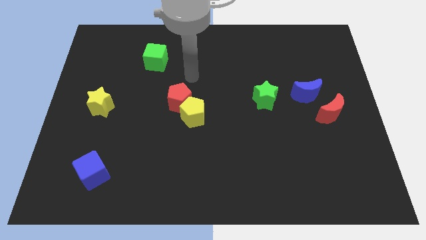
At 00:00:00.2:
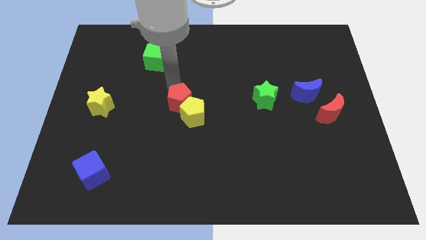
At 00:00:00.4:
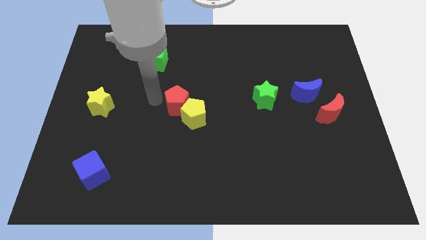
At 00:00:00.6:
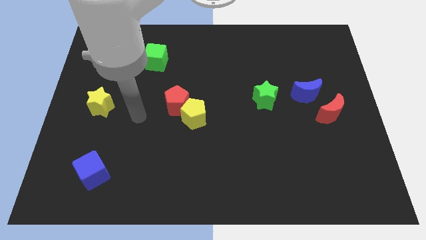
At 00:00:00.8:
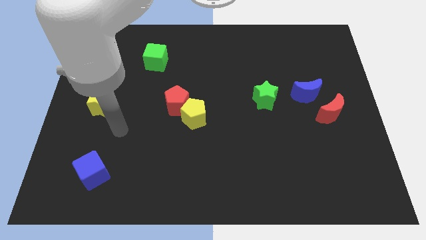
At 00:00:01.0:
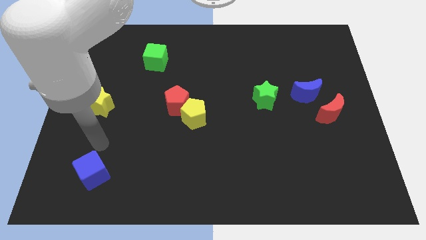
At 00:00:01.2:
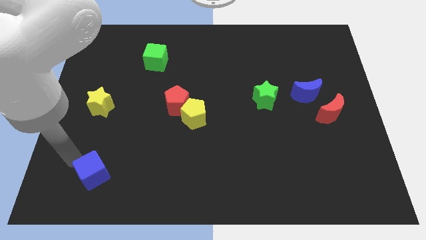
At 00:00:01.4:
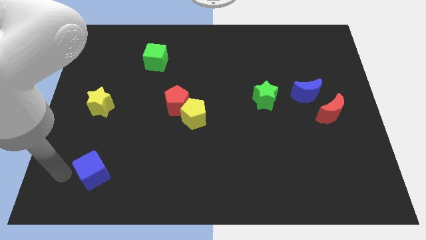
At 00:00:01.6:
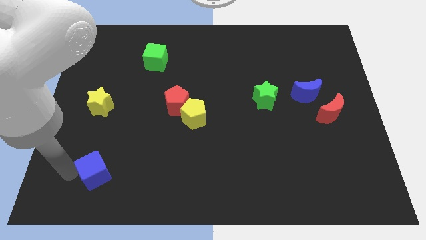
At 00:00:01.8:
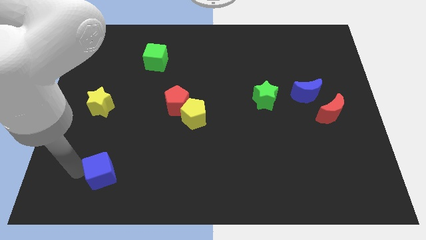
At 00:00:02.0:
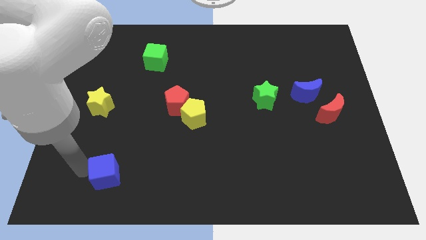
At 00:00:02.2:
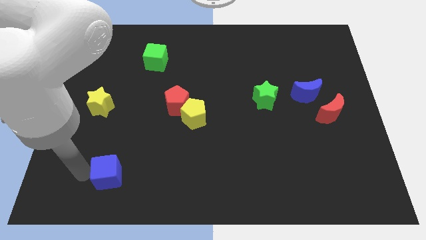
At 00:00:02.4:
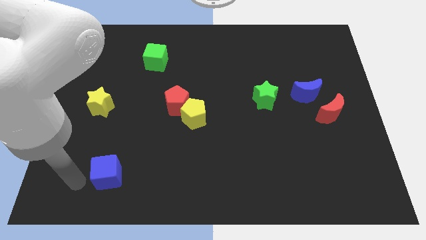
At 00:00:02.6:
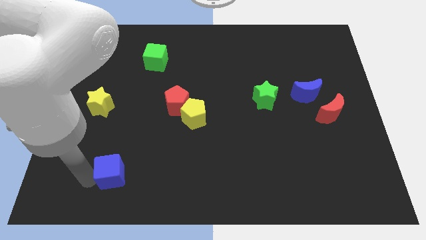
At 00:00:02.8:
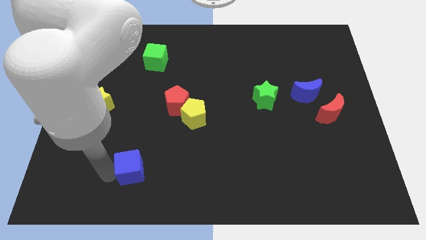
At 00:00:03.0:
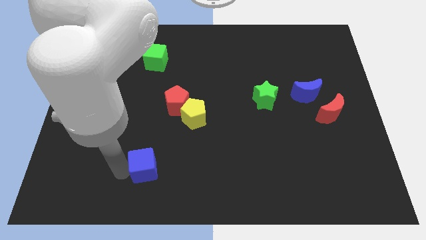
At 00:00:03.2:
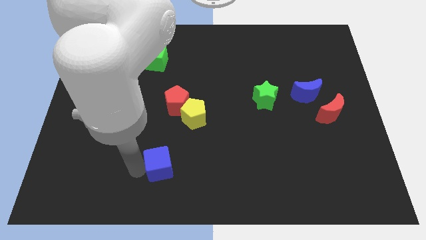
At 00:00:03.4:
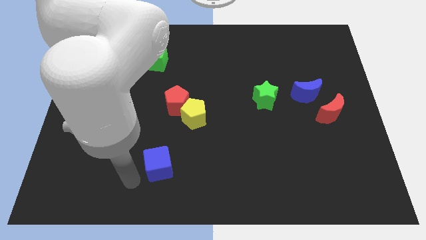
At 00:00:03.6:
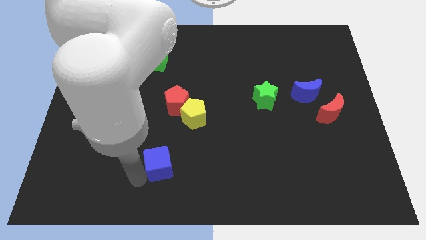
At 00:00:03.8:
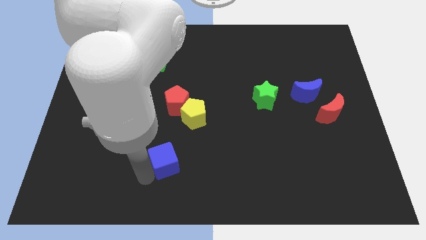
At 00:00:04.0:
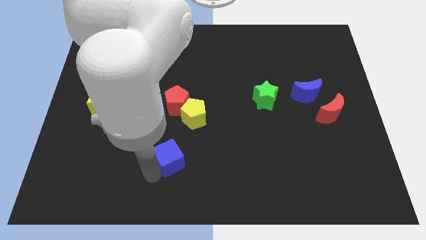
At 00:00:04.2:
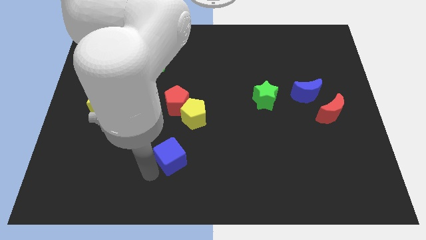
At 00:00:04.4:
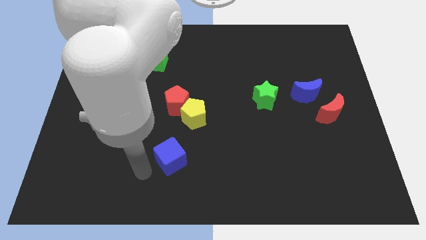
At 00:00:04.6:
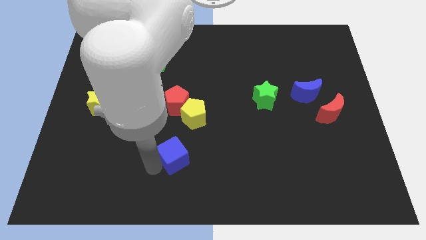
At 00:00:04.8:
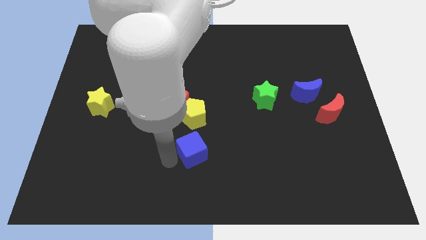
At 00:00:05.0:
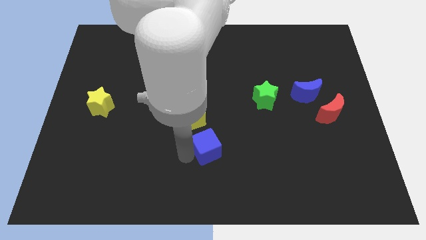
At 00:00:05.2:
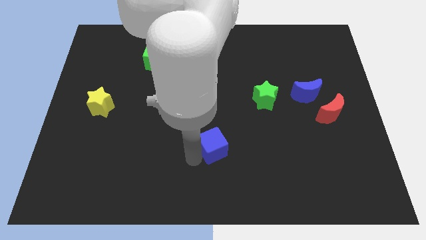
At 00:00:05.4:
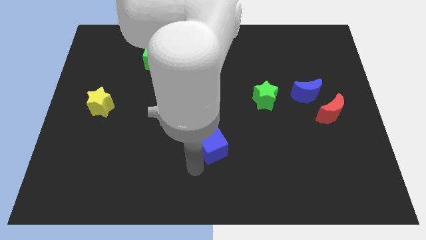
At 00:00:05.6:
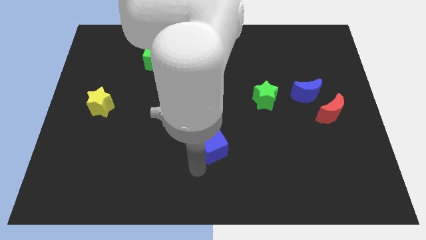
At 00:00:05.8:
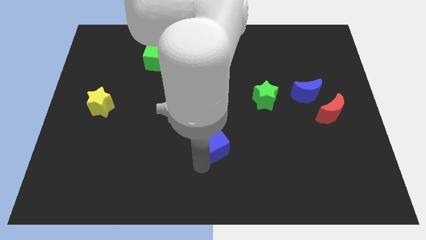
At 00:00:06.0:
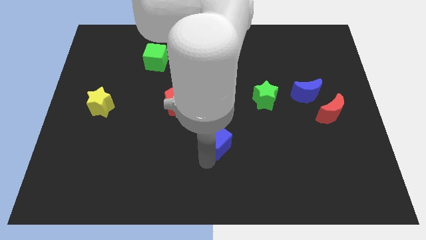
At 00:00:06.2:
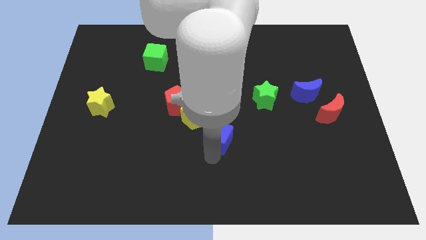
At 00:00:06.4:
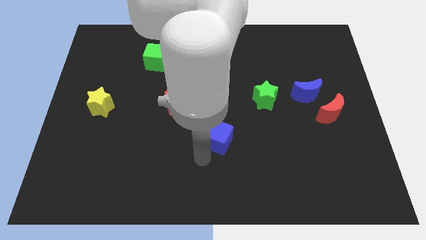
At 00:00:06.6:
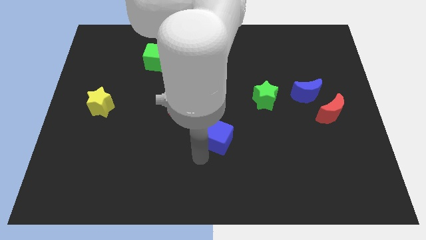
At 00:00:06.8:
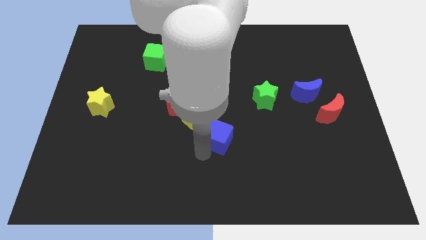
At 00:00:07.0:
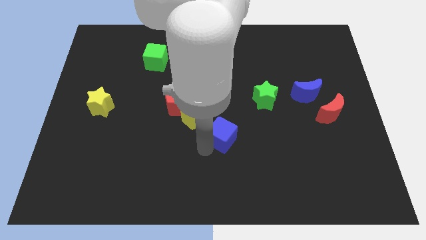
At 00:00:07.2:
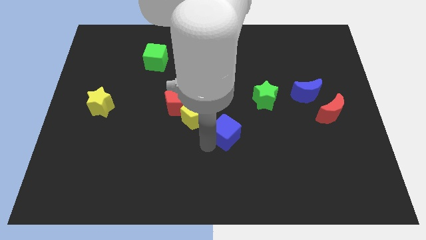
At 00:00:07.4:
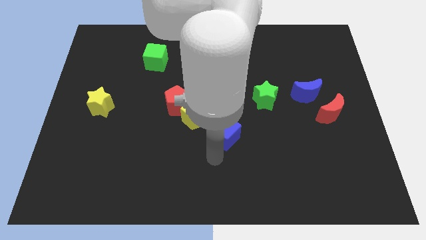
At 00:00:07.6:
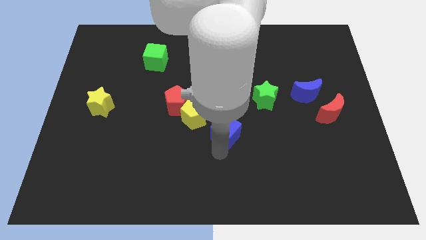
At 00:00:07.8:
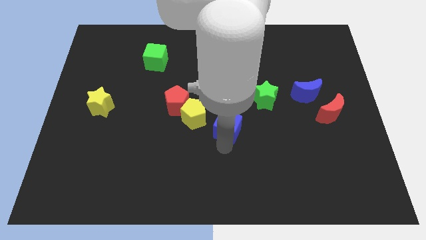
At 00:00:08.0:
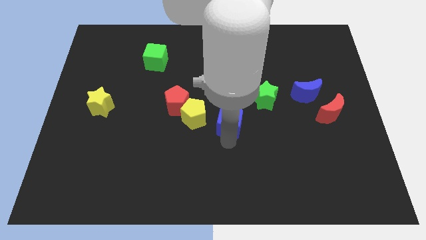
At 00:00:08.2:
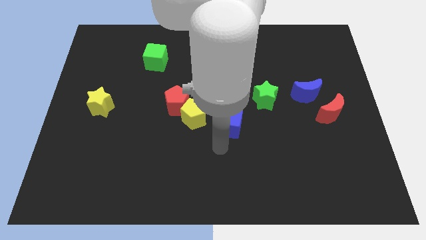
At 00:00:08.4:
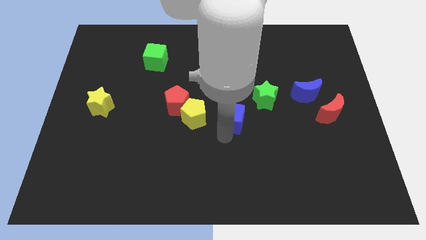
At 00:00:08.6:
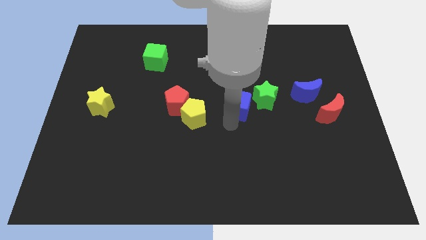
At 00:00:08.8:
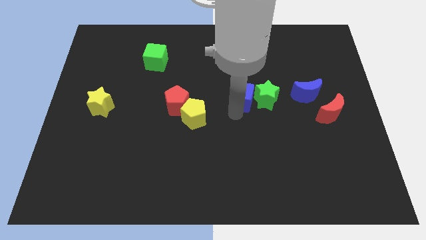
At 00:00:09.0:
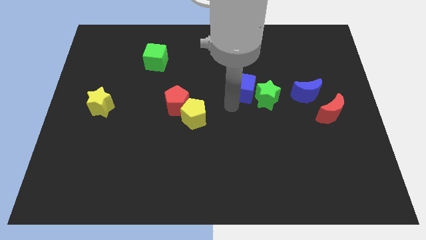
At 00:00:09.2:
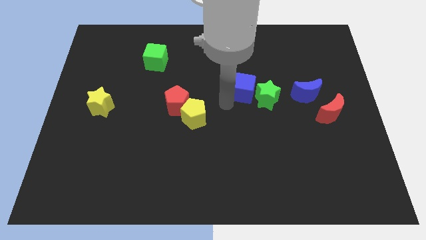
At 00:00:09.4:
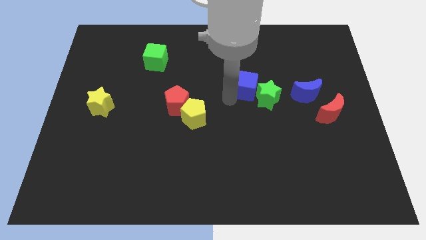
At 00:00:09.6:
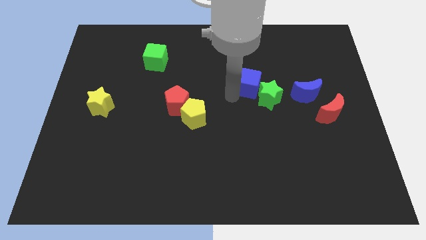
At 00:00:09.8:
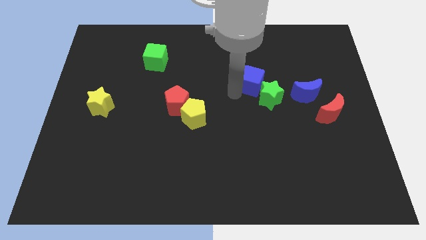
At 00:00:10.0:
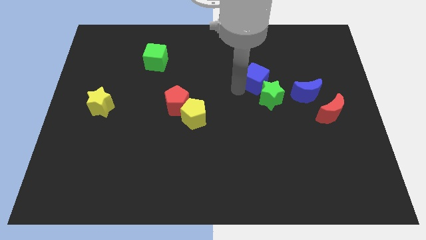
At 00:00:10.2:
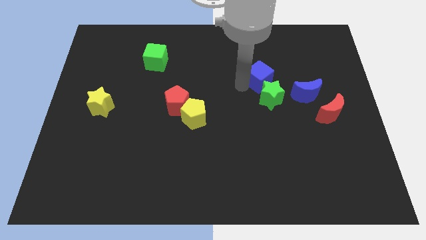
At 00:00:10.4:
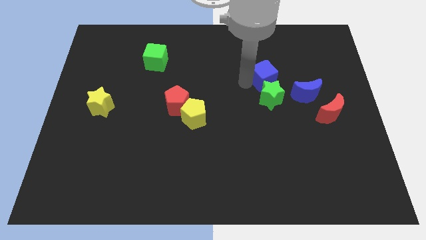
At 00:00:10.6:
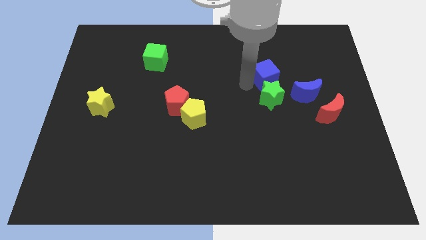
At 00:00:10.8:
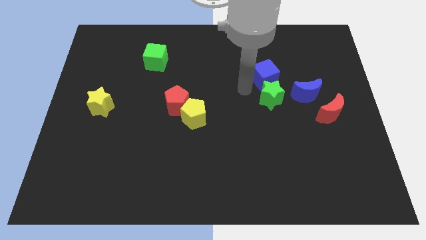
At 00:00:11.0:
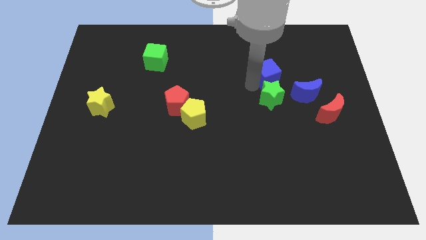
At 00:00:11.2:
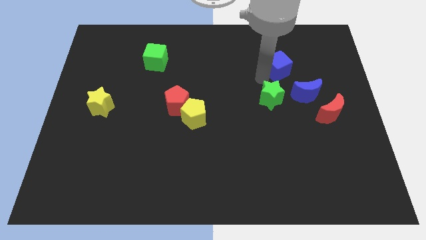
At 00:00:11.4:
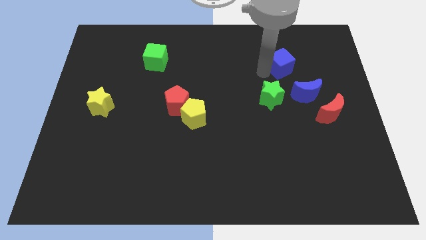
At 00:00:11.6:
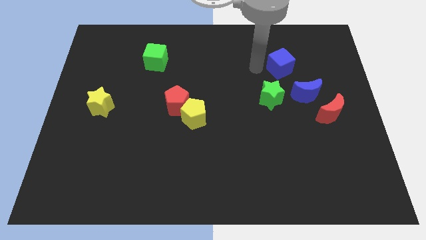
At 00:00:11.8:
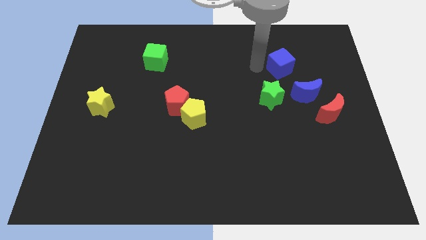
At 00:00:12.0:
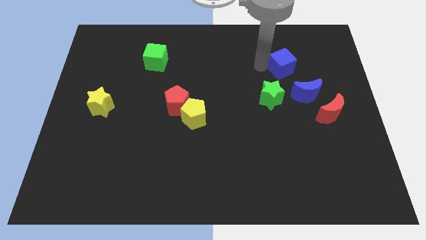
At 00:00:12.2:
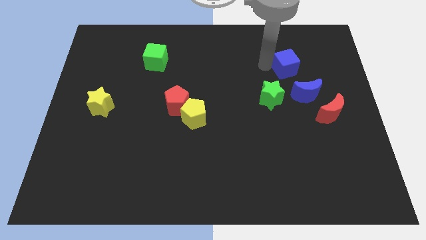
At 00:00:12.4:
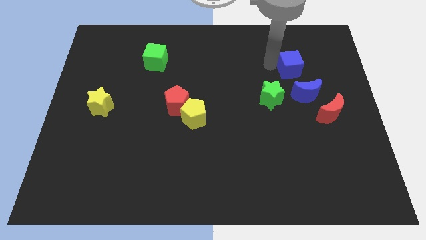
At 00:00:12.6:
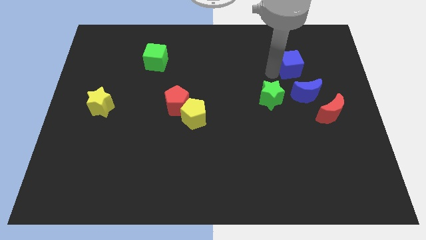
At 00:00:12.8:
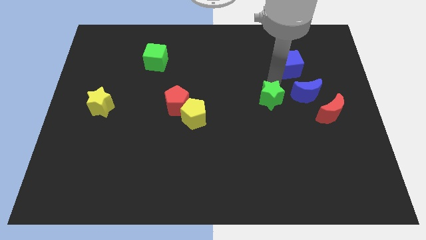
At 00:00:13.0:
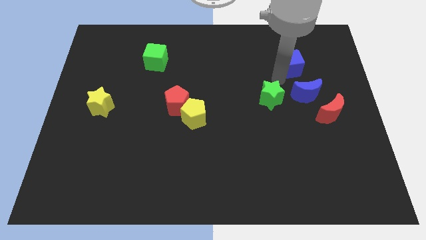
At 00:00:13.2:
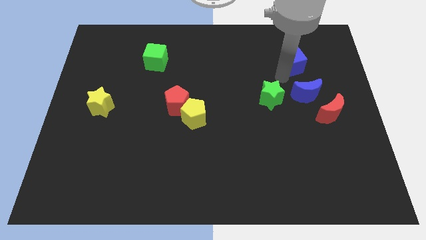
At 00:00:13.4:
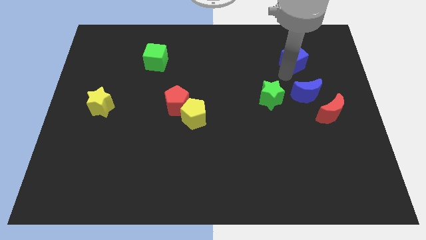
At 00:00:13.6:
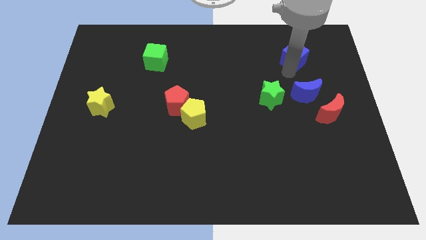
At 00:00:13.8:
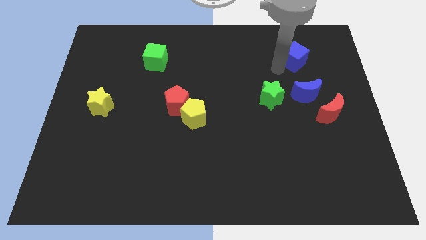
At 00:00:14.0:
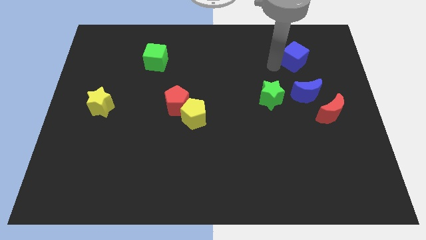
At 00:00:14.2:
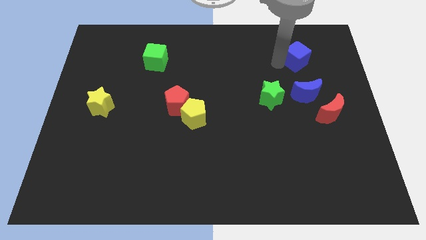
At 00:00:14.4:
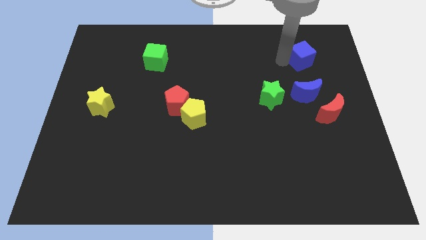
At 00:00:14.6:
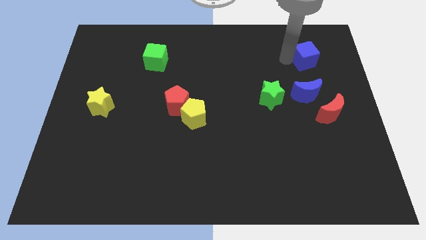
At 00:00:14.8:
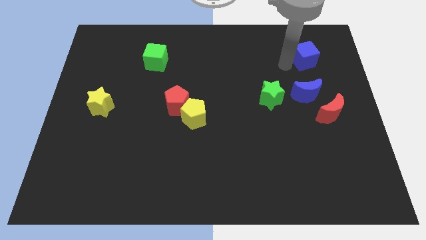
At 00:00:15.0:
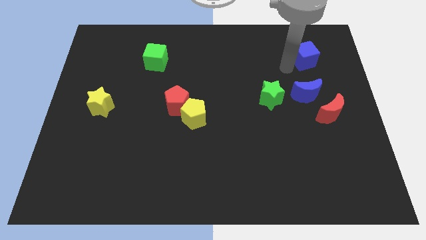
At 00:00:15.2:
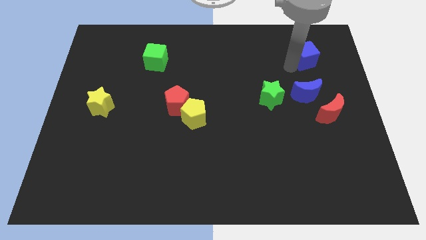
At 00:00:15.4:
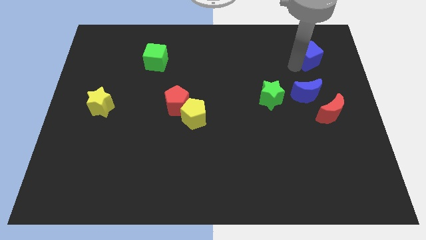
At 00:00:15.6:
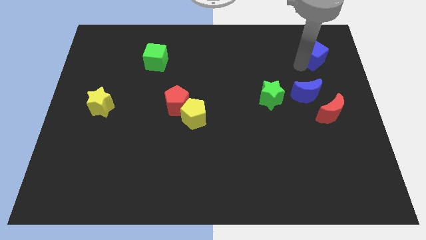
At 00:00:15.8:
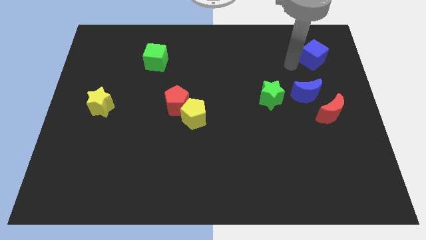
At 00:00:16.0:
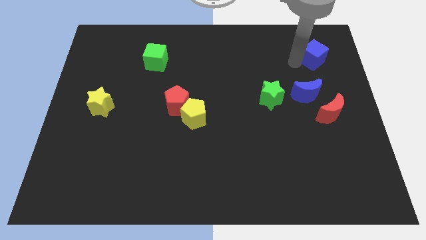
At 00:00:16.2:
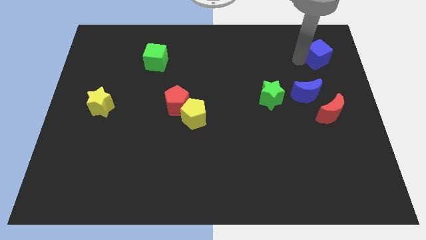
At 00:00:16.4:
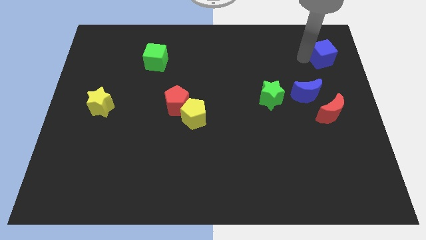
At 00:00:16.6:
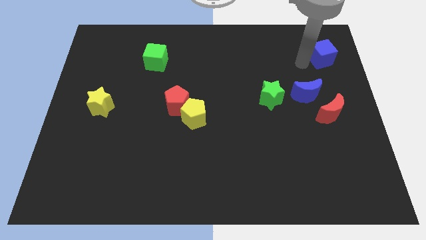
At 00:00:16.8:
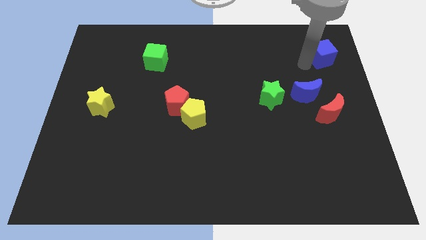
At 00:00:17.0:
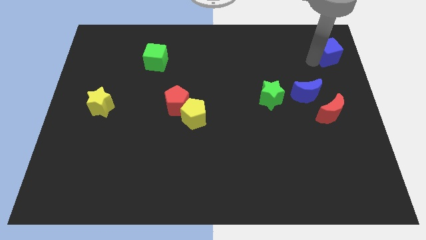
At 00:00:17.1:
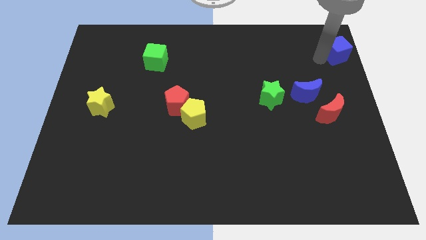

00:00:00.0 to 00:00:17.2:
put the blue cube to the top right
